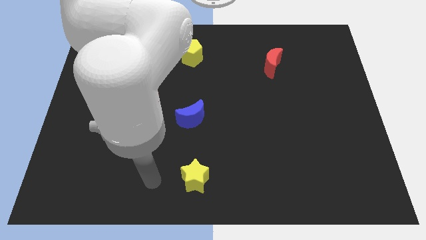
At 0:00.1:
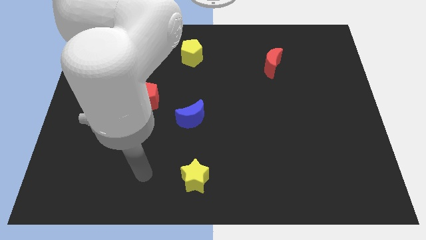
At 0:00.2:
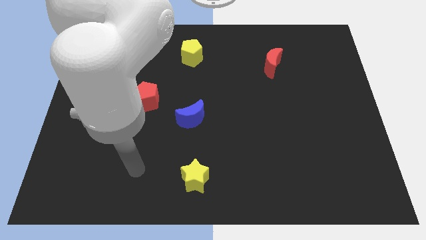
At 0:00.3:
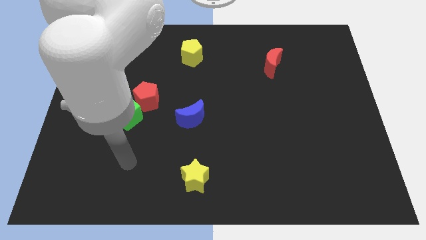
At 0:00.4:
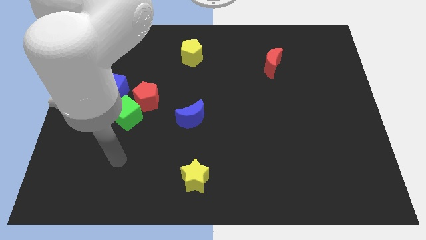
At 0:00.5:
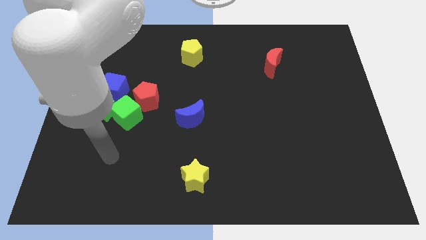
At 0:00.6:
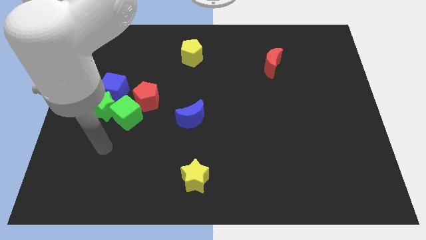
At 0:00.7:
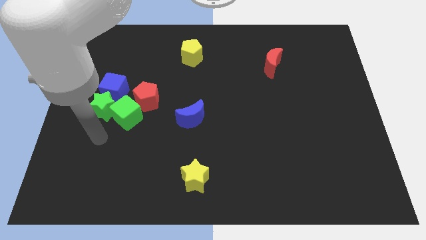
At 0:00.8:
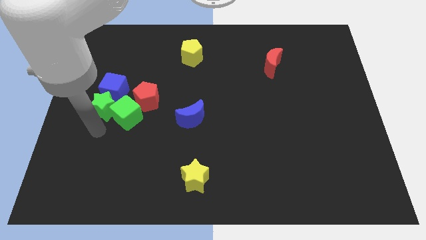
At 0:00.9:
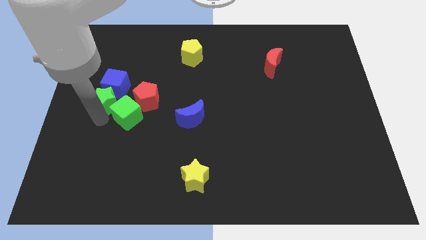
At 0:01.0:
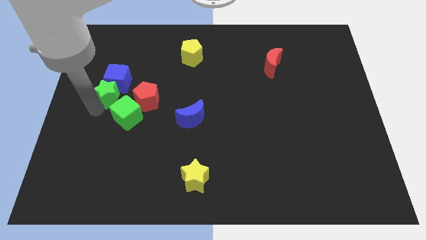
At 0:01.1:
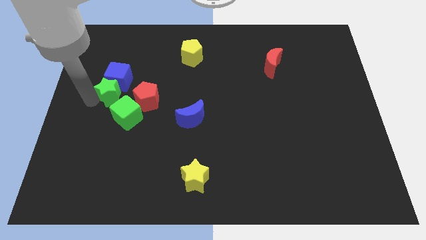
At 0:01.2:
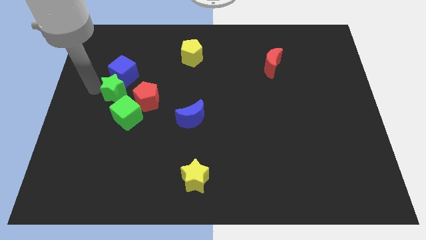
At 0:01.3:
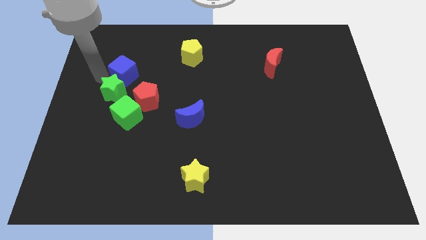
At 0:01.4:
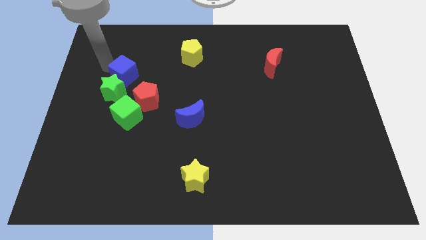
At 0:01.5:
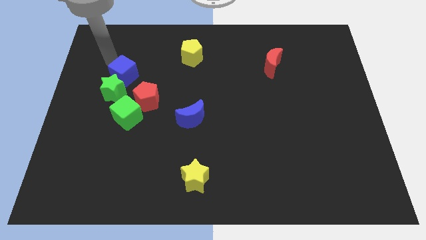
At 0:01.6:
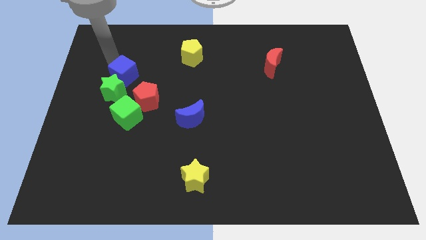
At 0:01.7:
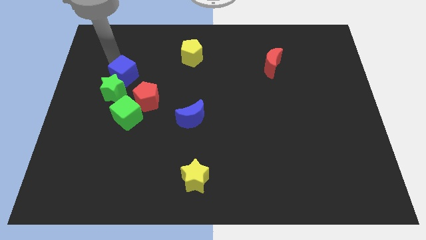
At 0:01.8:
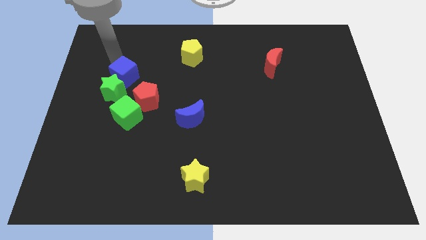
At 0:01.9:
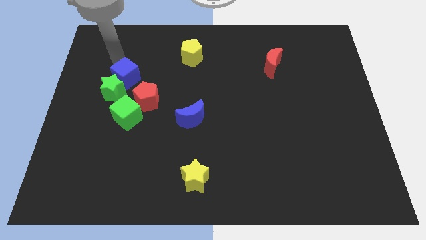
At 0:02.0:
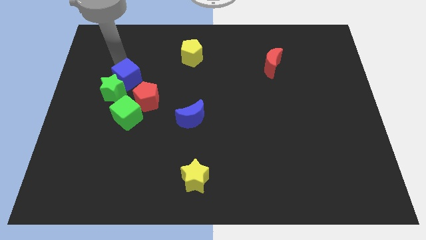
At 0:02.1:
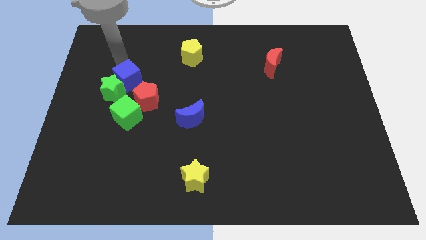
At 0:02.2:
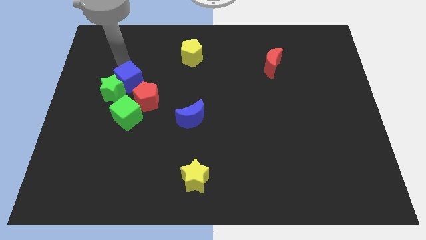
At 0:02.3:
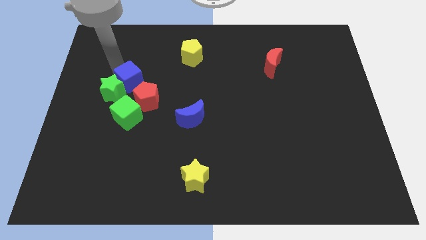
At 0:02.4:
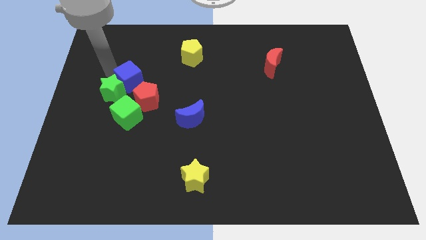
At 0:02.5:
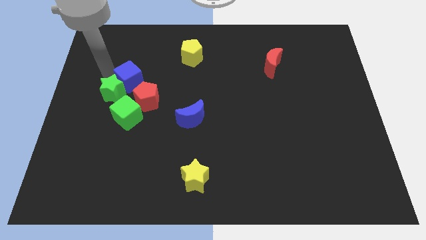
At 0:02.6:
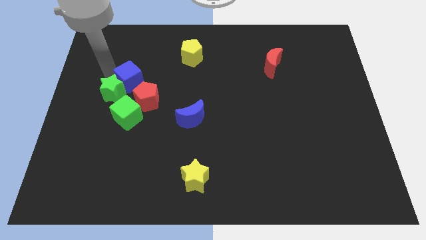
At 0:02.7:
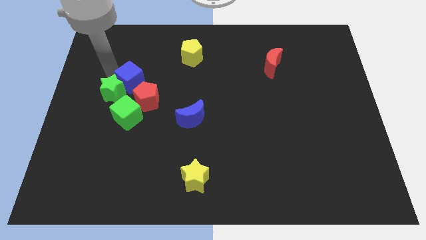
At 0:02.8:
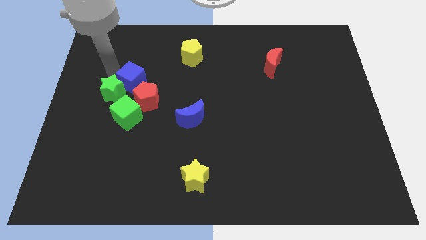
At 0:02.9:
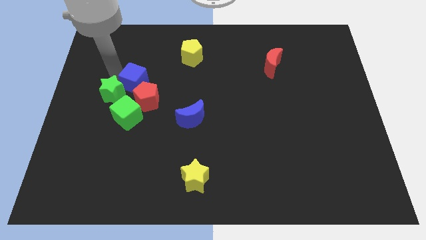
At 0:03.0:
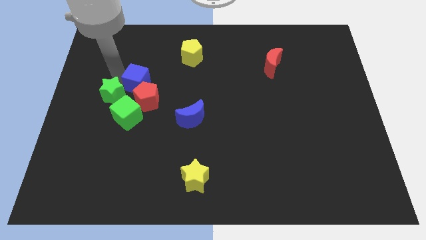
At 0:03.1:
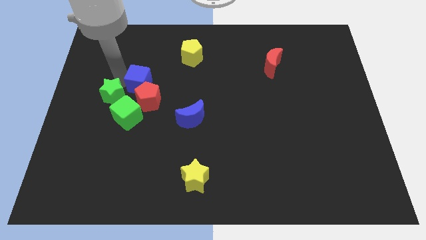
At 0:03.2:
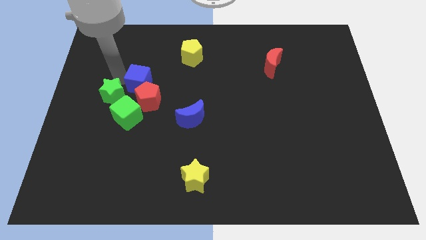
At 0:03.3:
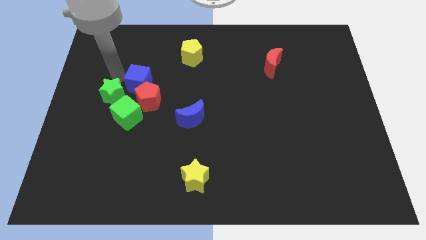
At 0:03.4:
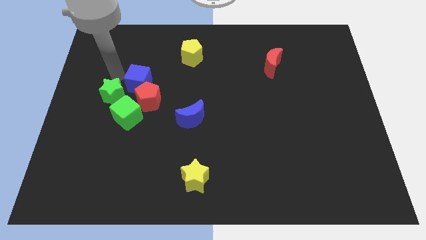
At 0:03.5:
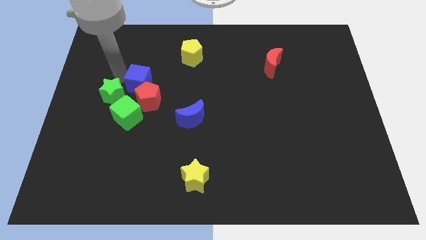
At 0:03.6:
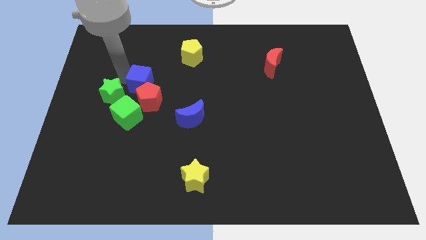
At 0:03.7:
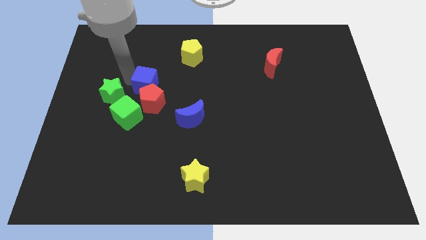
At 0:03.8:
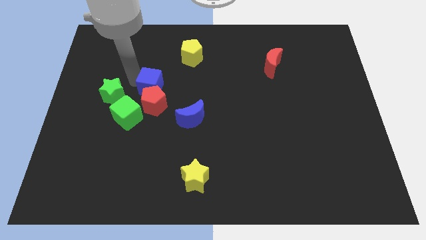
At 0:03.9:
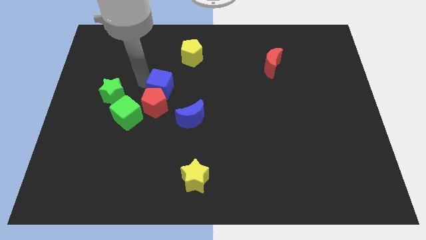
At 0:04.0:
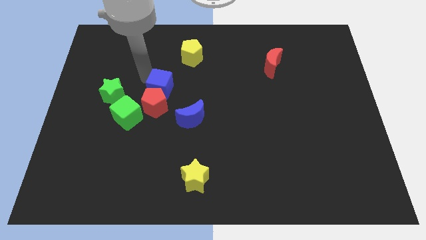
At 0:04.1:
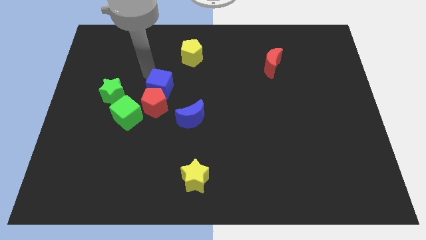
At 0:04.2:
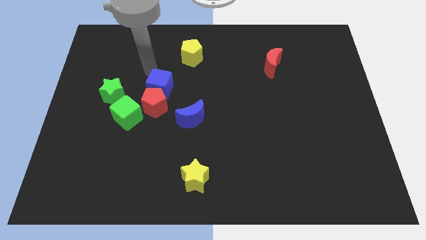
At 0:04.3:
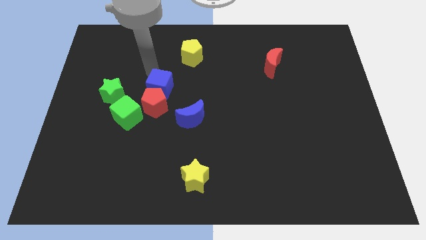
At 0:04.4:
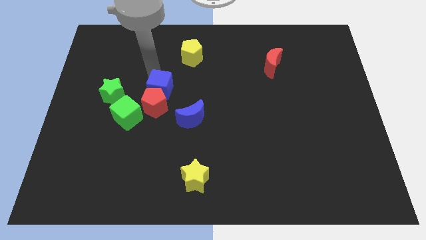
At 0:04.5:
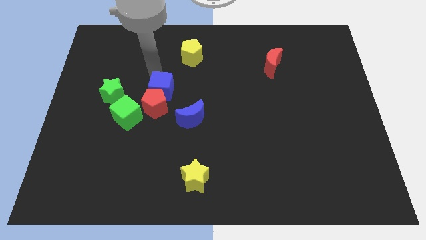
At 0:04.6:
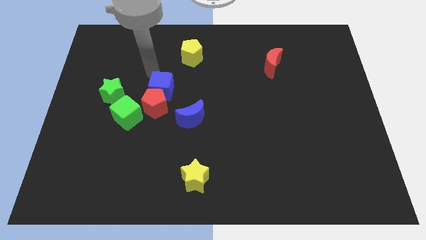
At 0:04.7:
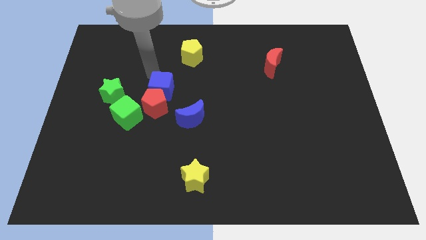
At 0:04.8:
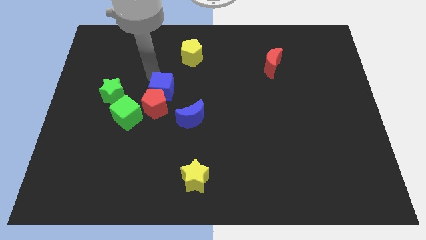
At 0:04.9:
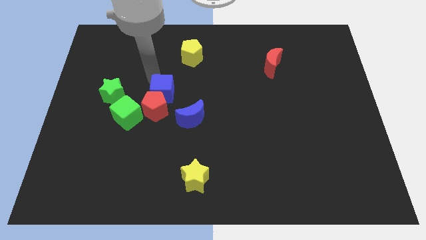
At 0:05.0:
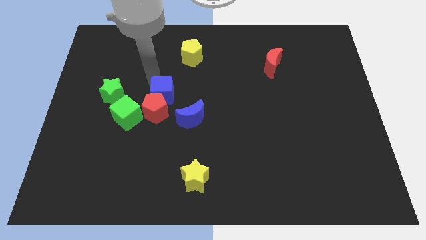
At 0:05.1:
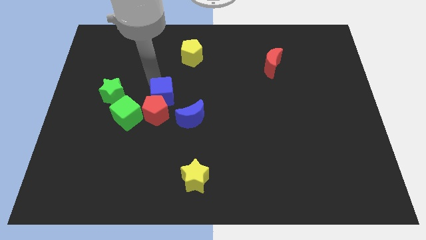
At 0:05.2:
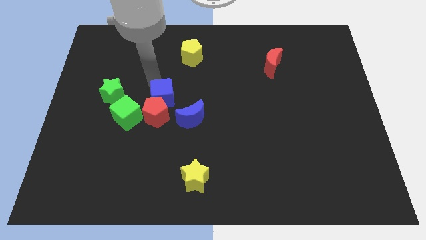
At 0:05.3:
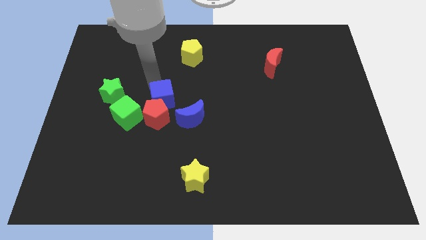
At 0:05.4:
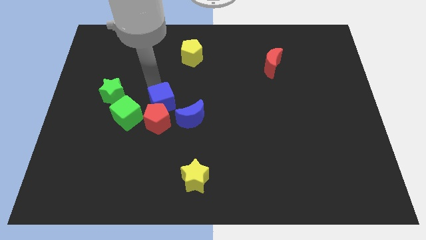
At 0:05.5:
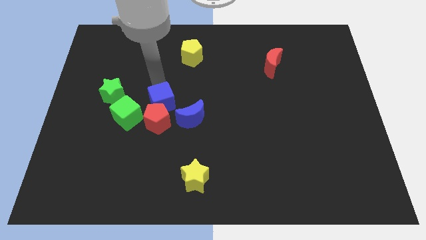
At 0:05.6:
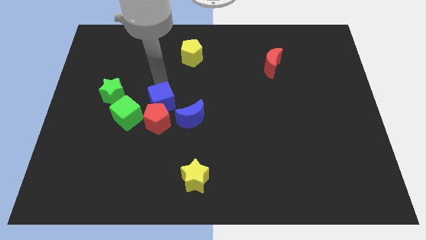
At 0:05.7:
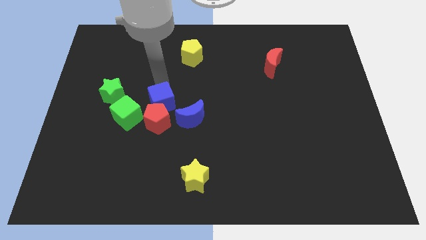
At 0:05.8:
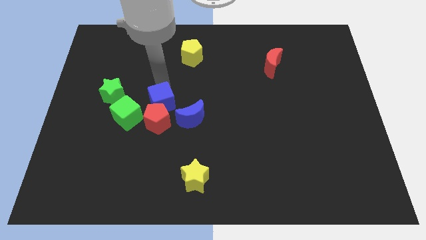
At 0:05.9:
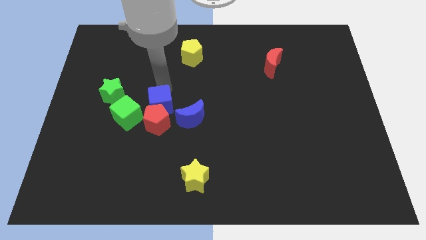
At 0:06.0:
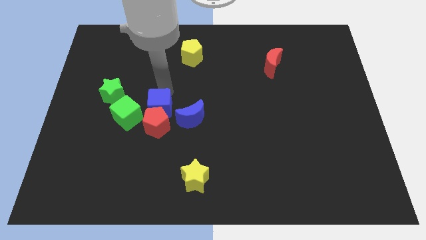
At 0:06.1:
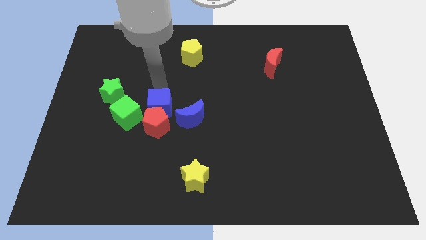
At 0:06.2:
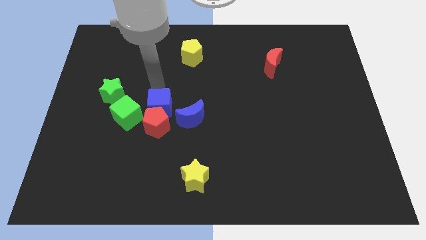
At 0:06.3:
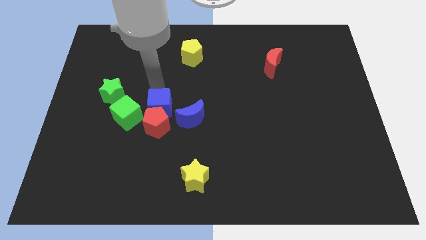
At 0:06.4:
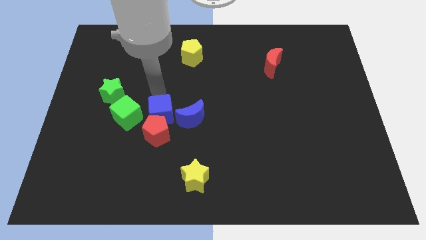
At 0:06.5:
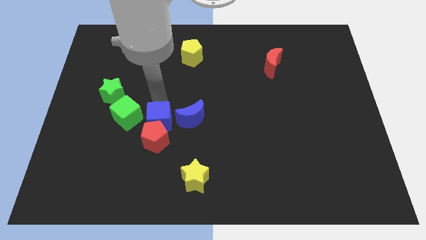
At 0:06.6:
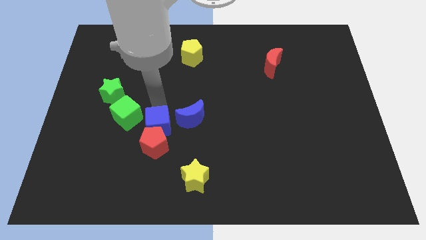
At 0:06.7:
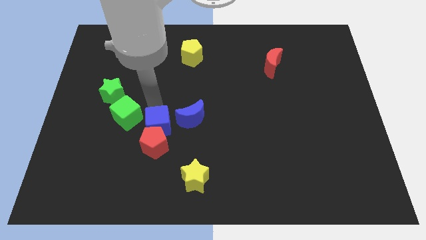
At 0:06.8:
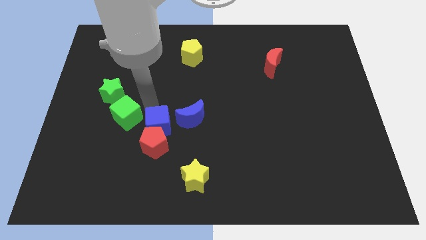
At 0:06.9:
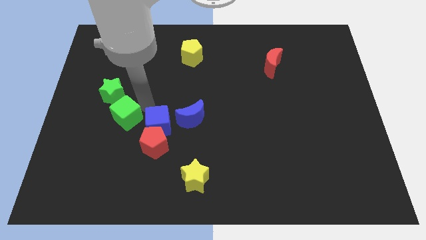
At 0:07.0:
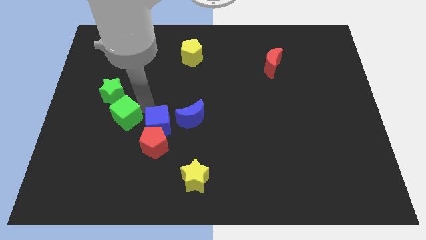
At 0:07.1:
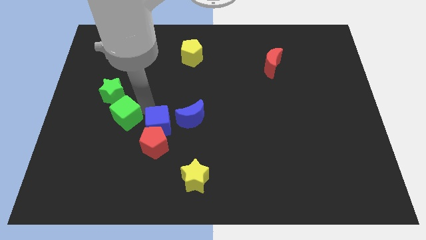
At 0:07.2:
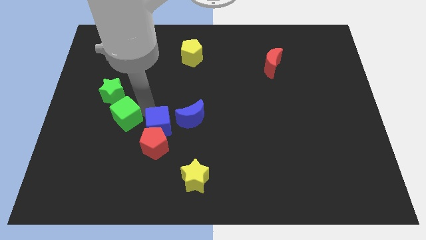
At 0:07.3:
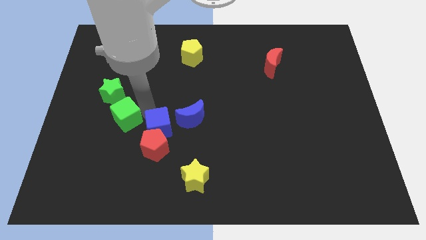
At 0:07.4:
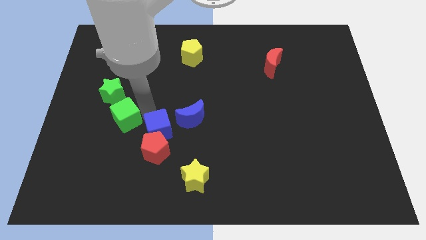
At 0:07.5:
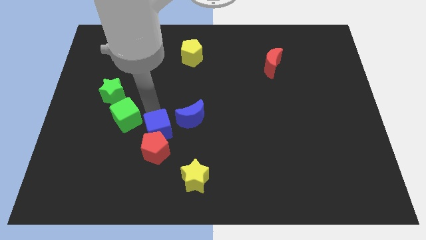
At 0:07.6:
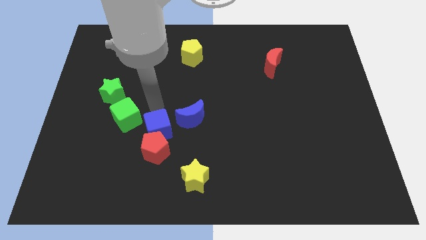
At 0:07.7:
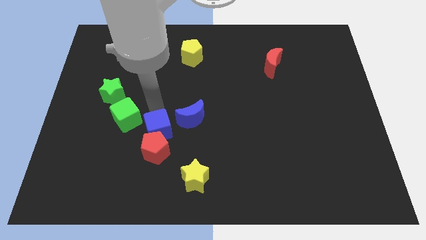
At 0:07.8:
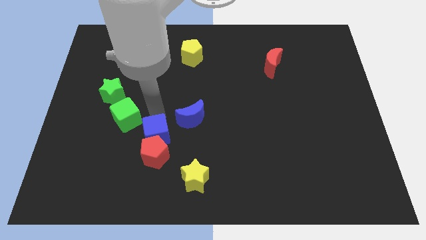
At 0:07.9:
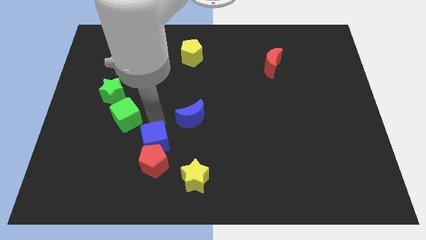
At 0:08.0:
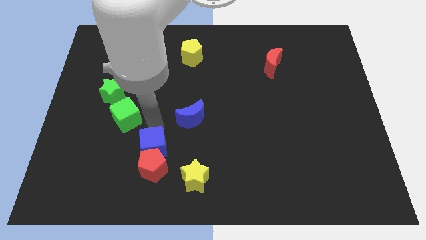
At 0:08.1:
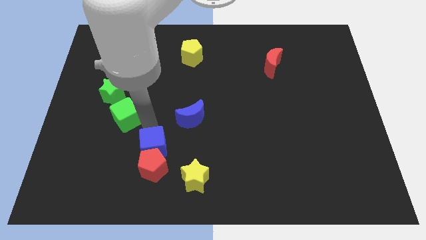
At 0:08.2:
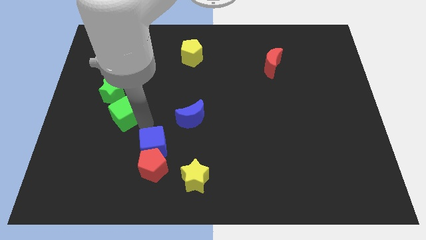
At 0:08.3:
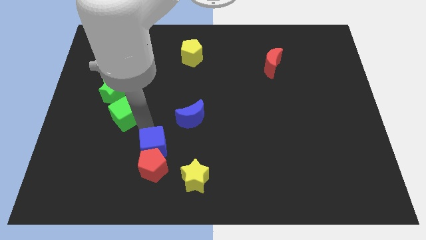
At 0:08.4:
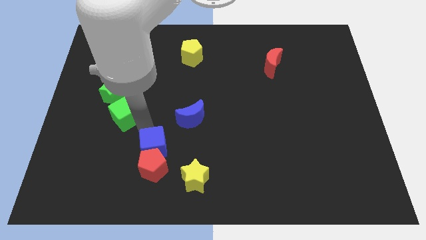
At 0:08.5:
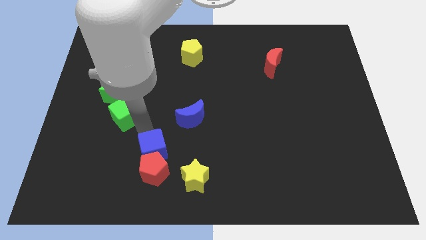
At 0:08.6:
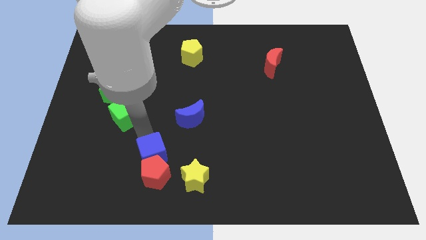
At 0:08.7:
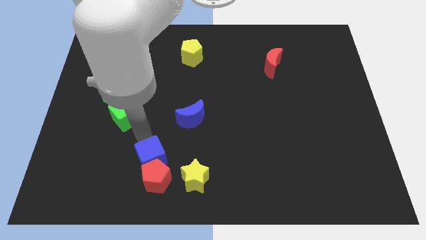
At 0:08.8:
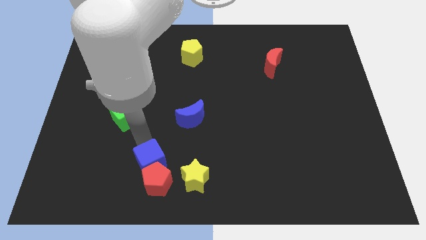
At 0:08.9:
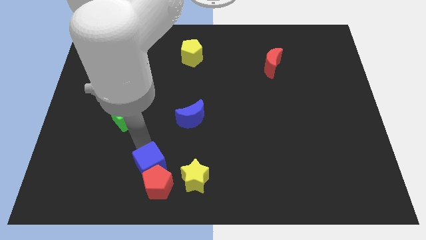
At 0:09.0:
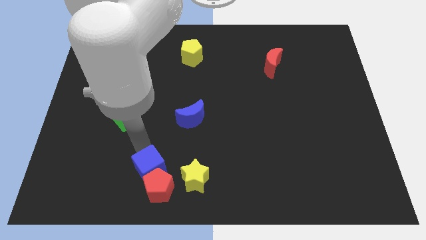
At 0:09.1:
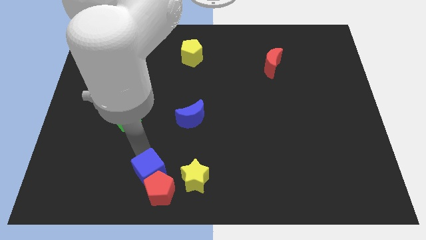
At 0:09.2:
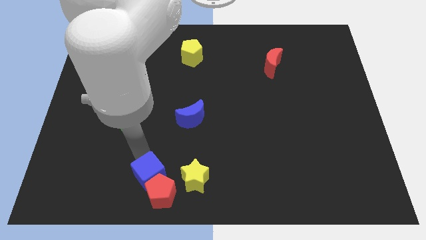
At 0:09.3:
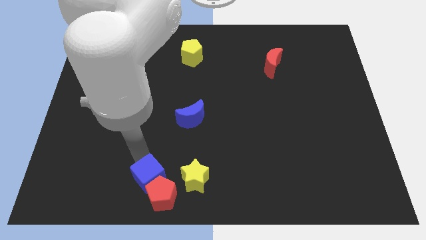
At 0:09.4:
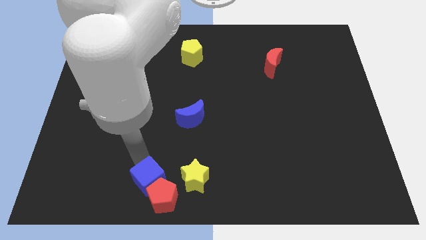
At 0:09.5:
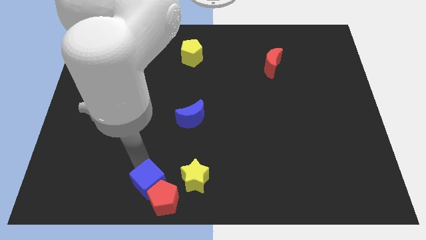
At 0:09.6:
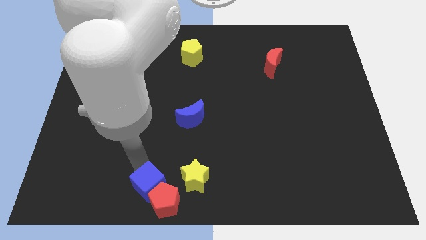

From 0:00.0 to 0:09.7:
move the blue cube to the bottom
